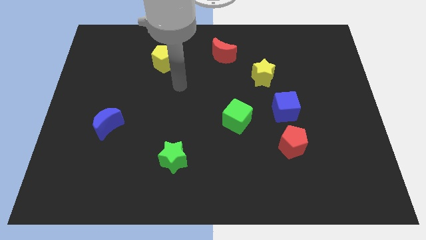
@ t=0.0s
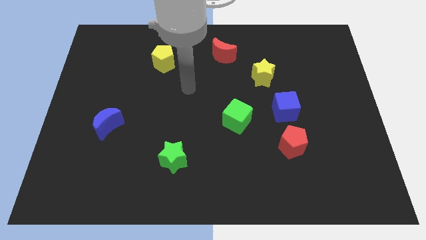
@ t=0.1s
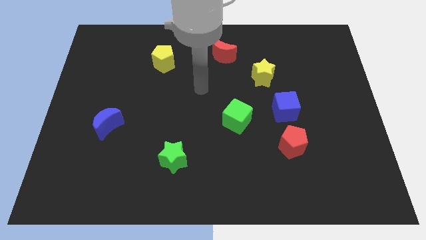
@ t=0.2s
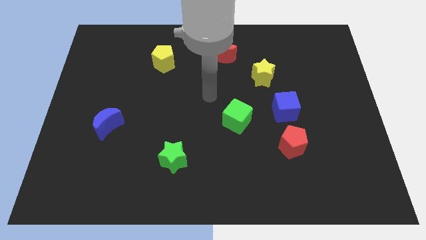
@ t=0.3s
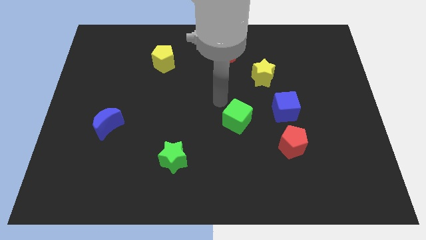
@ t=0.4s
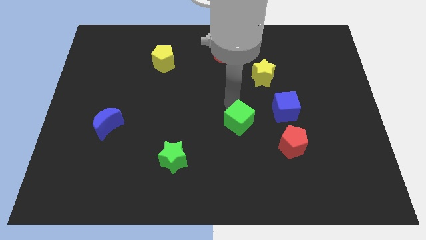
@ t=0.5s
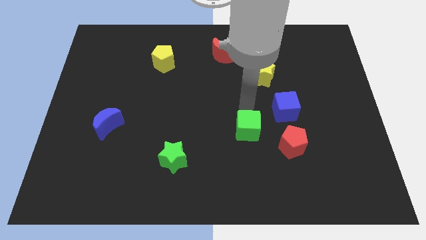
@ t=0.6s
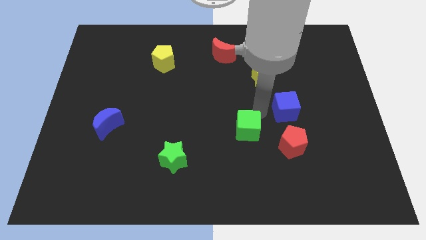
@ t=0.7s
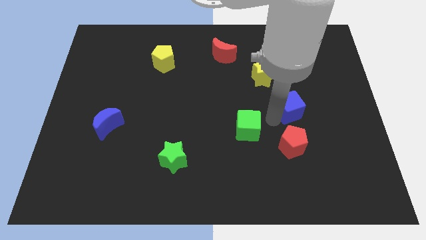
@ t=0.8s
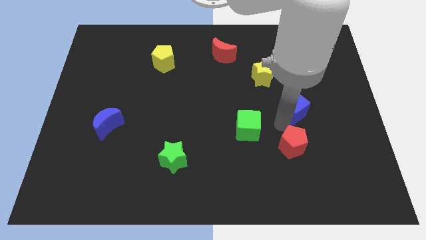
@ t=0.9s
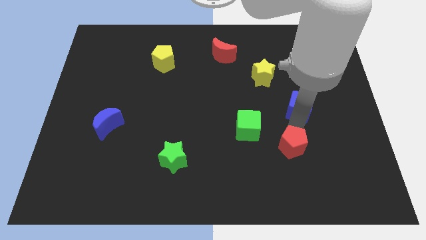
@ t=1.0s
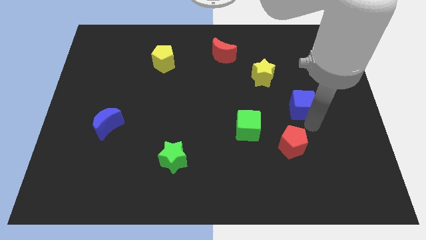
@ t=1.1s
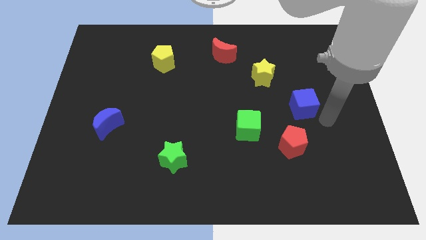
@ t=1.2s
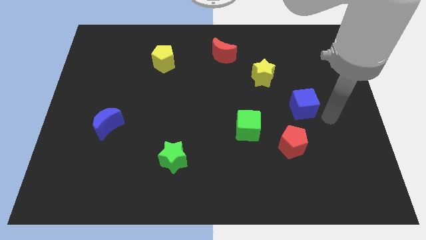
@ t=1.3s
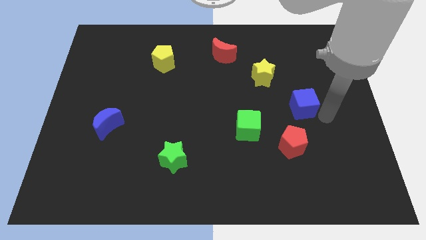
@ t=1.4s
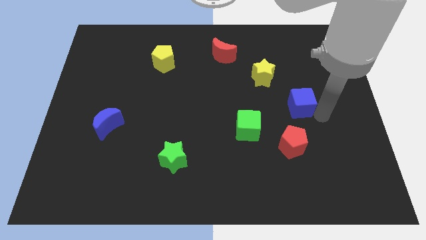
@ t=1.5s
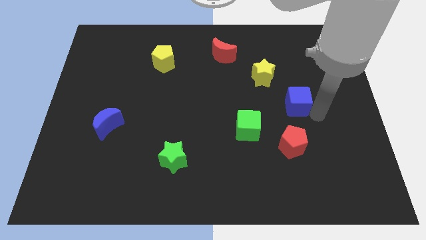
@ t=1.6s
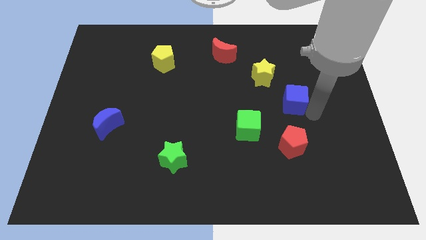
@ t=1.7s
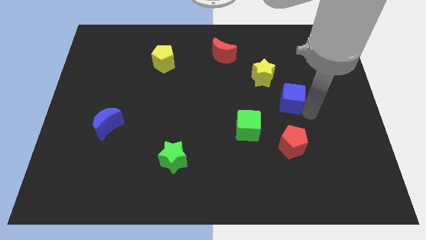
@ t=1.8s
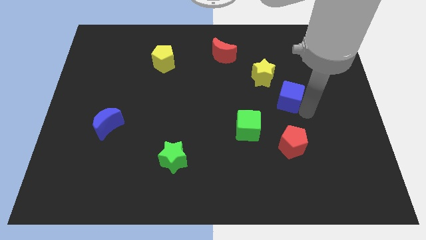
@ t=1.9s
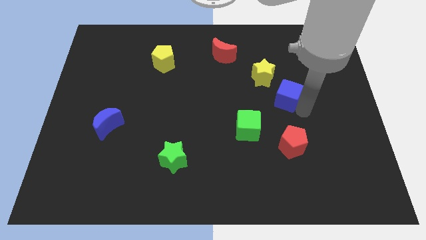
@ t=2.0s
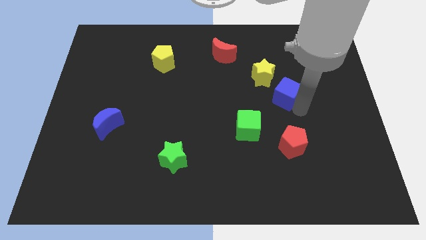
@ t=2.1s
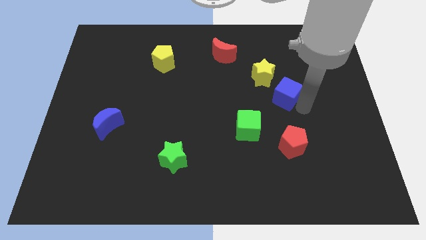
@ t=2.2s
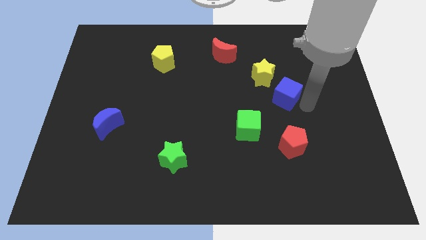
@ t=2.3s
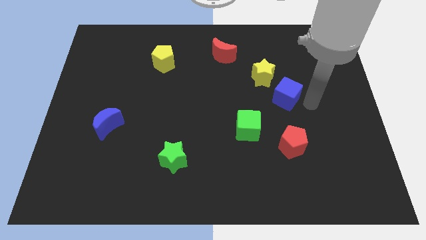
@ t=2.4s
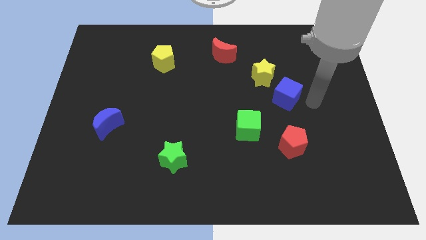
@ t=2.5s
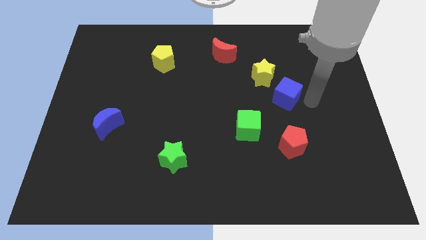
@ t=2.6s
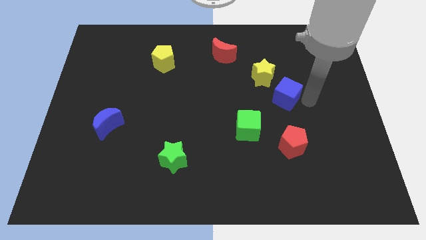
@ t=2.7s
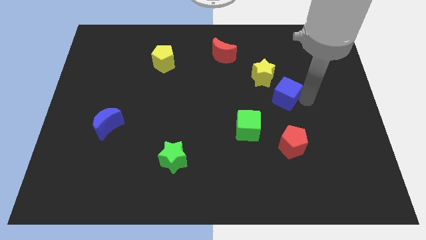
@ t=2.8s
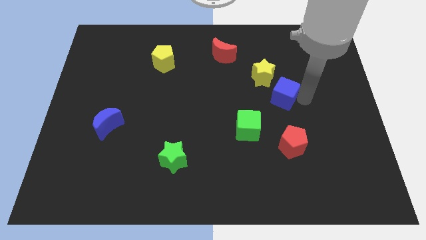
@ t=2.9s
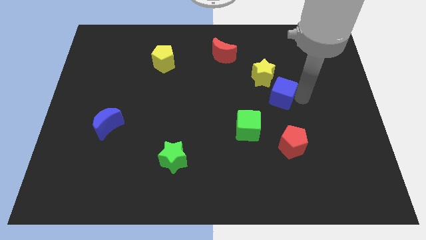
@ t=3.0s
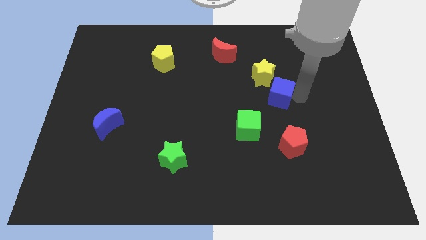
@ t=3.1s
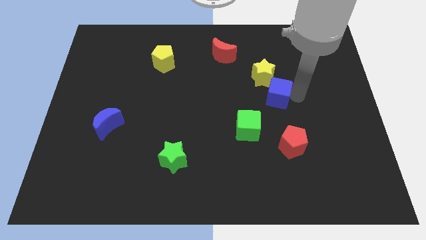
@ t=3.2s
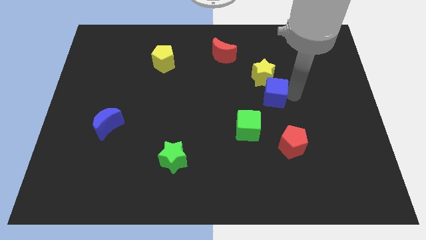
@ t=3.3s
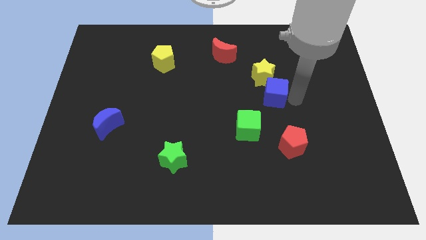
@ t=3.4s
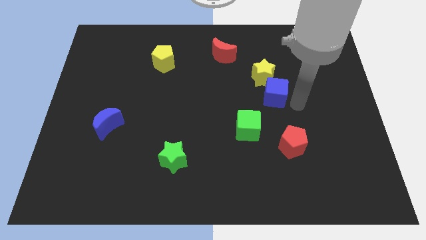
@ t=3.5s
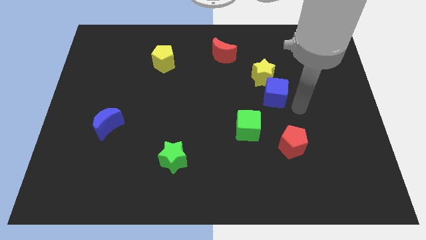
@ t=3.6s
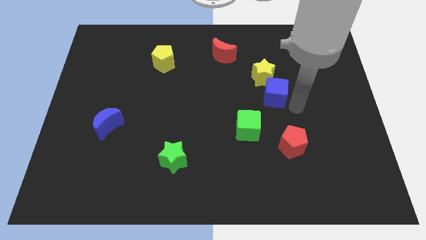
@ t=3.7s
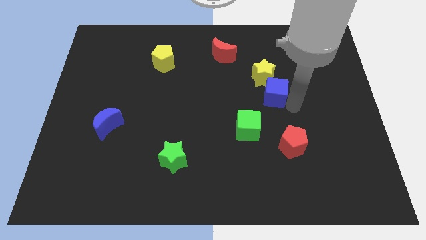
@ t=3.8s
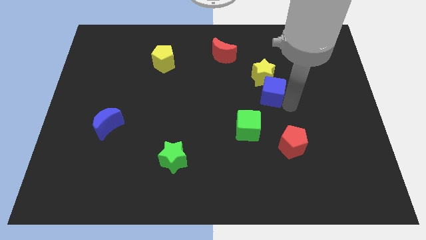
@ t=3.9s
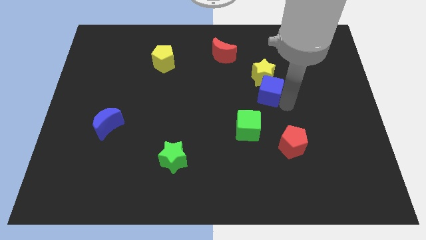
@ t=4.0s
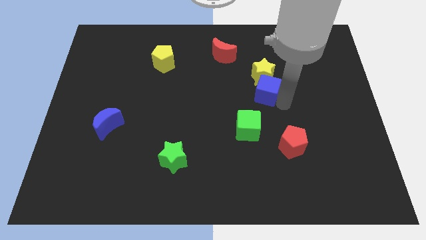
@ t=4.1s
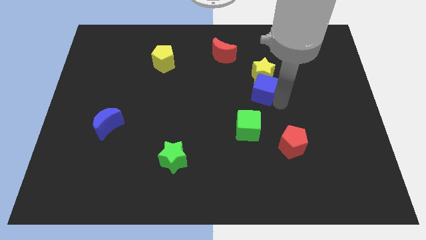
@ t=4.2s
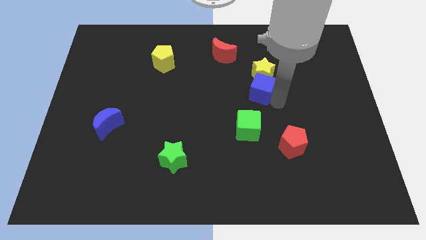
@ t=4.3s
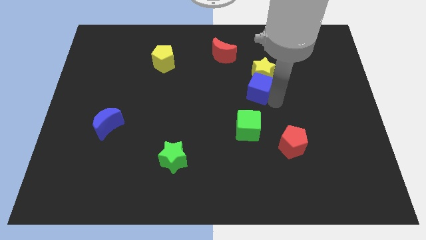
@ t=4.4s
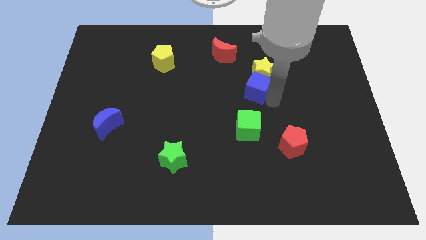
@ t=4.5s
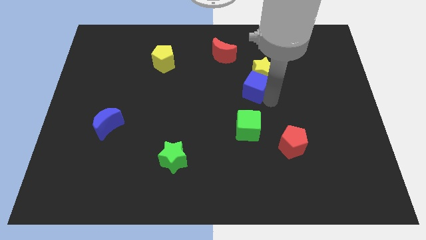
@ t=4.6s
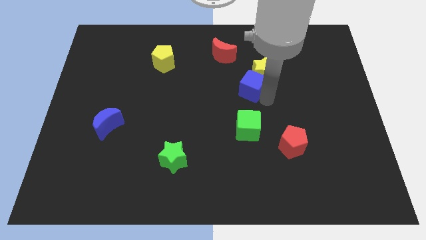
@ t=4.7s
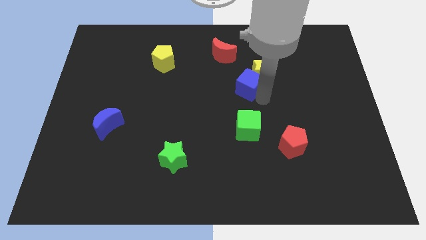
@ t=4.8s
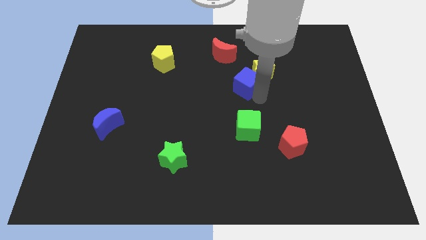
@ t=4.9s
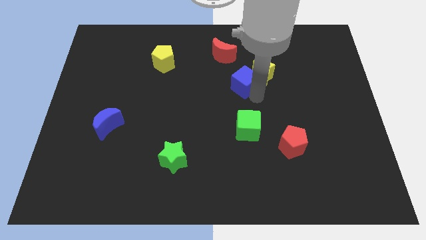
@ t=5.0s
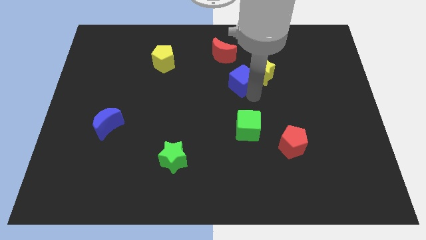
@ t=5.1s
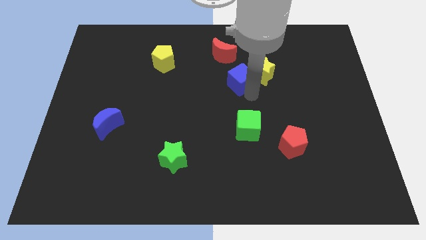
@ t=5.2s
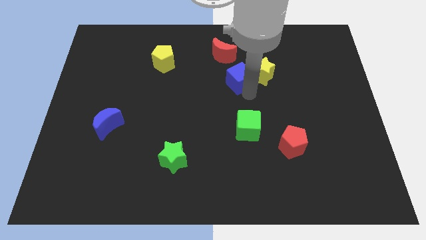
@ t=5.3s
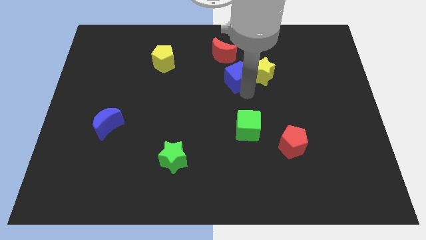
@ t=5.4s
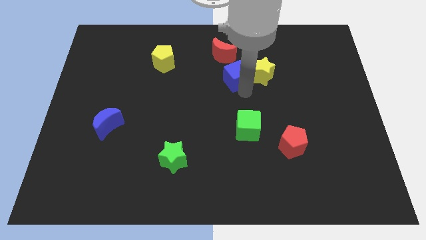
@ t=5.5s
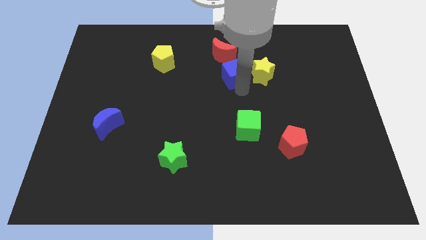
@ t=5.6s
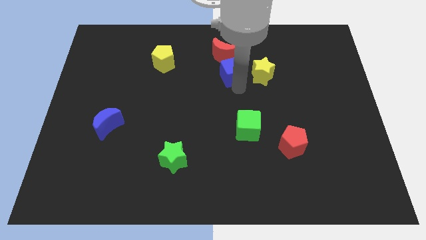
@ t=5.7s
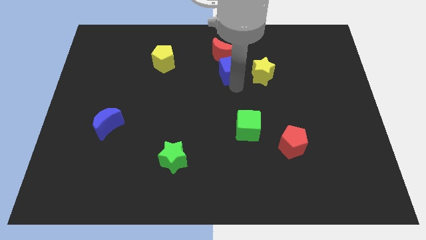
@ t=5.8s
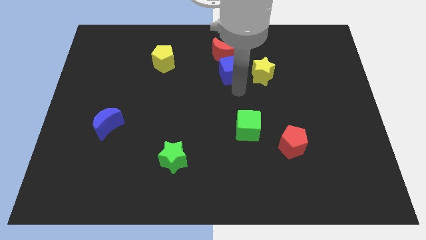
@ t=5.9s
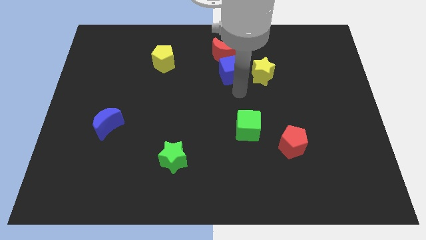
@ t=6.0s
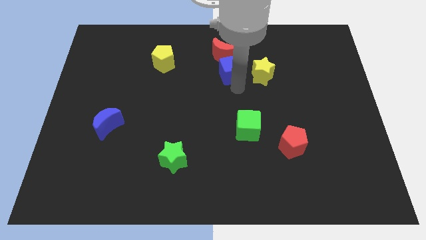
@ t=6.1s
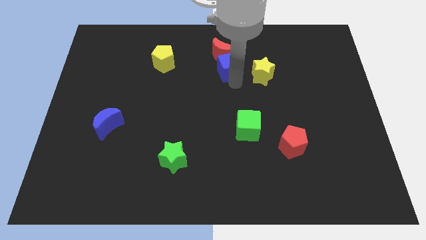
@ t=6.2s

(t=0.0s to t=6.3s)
put the blue cube close to the red moon

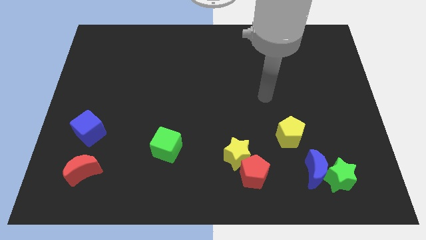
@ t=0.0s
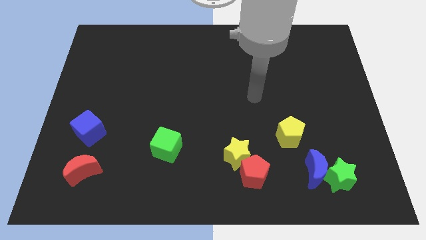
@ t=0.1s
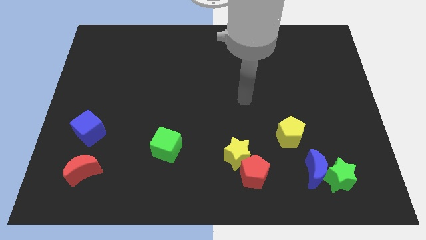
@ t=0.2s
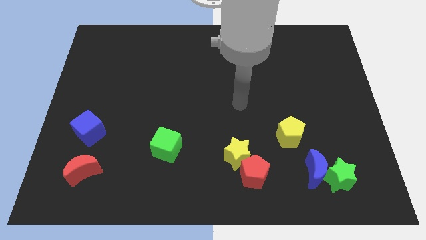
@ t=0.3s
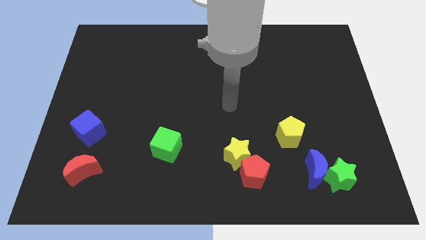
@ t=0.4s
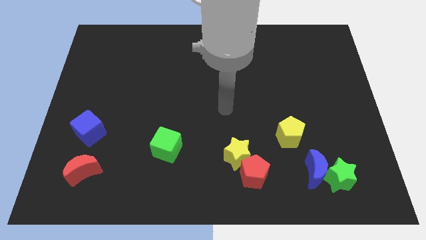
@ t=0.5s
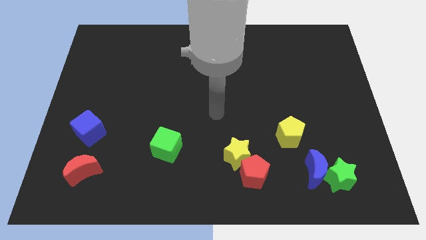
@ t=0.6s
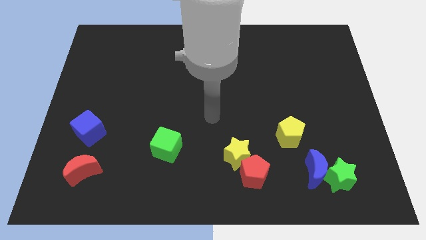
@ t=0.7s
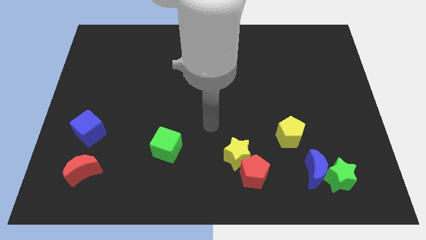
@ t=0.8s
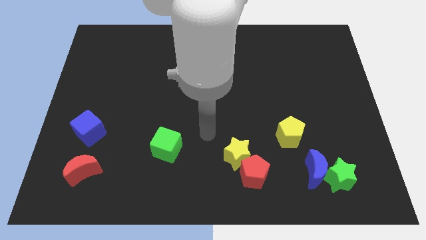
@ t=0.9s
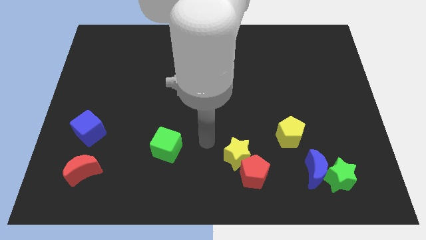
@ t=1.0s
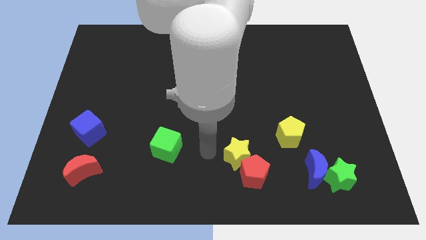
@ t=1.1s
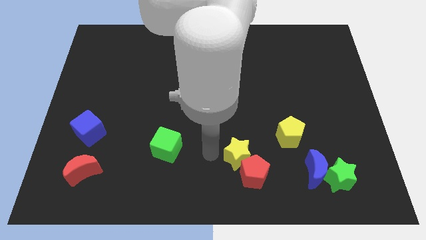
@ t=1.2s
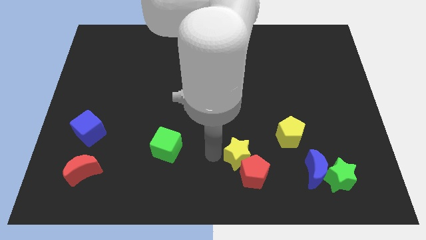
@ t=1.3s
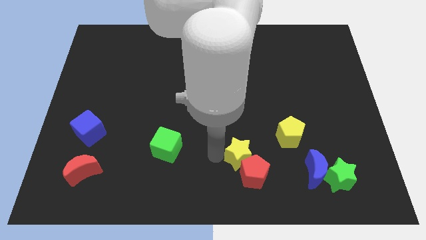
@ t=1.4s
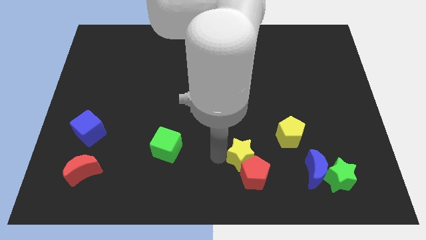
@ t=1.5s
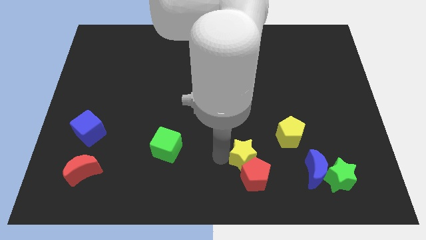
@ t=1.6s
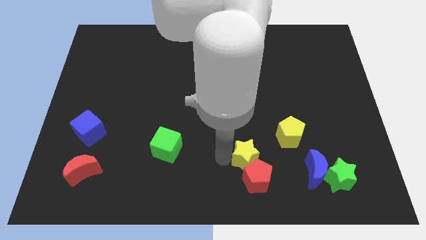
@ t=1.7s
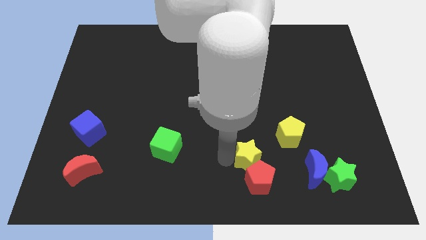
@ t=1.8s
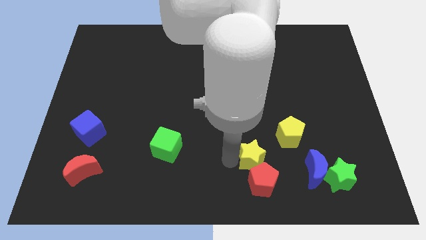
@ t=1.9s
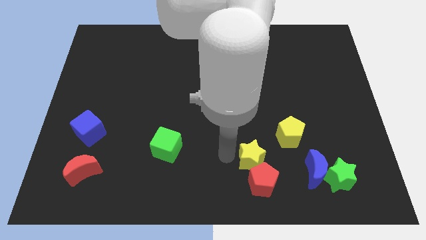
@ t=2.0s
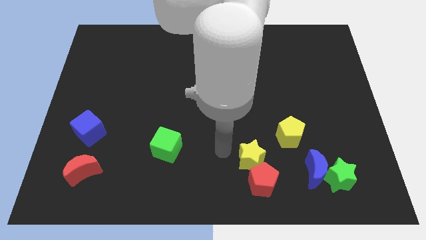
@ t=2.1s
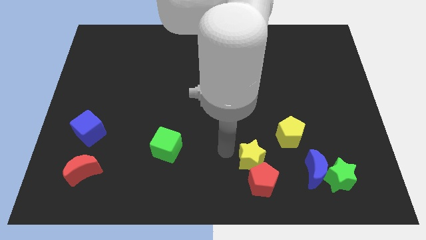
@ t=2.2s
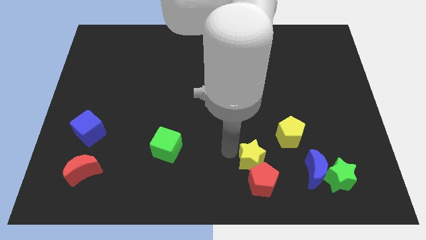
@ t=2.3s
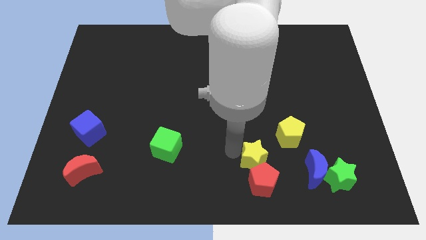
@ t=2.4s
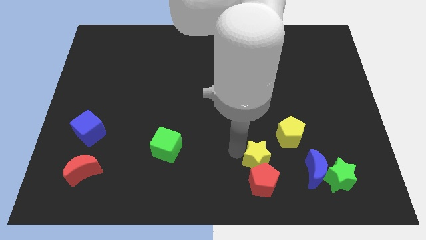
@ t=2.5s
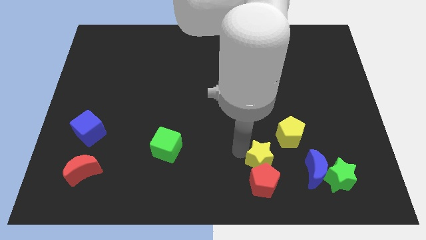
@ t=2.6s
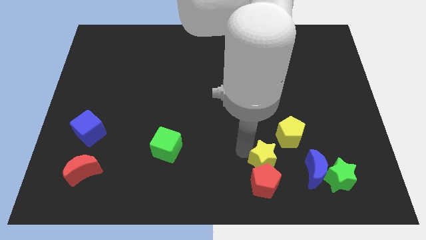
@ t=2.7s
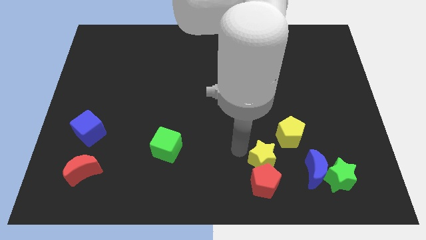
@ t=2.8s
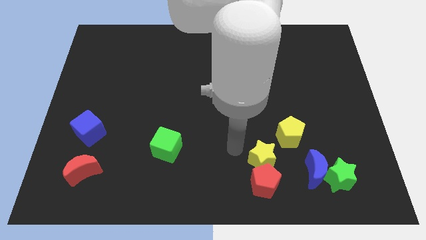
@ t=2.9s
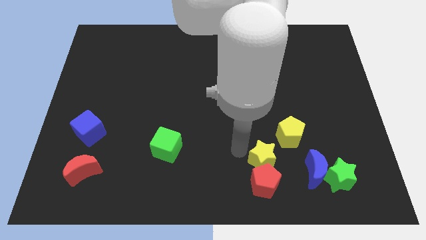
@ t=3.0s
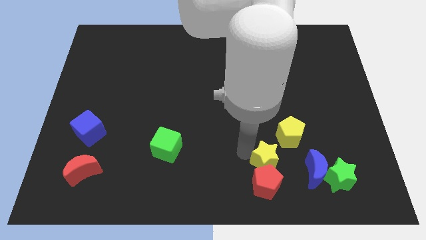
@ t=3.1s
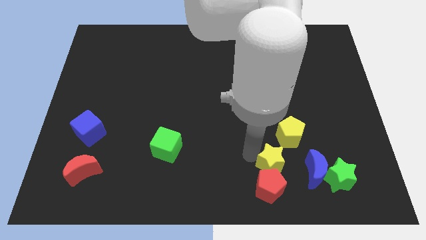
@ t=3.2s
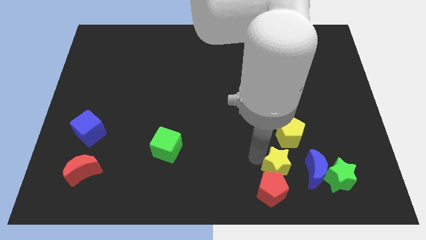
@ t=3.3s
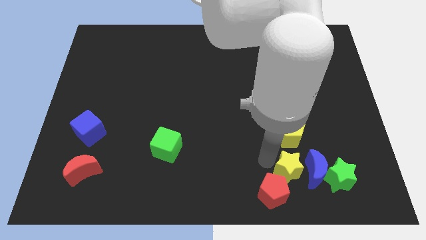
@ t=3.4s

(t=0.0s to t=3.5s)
move the yellow star next to the blue moon
